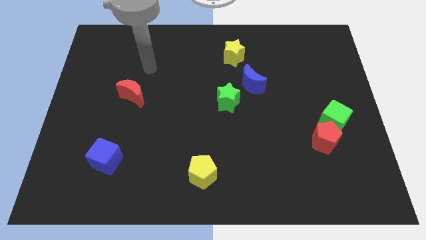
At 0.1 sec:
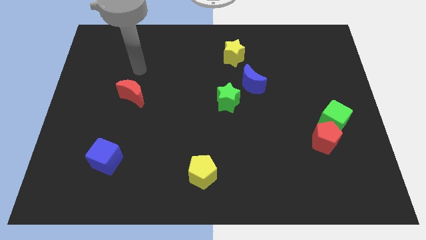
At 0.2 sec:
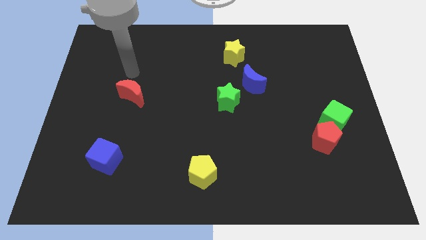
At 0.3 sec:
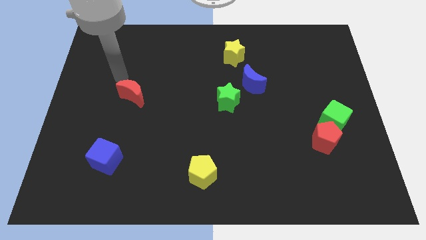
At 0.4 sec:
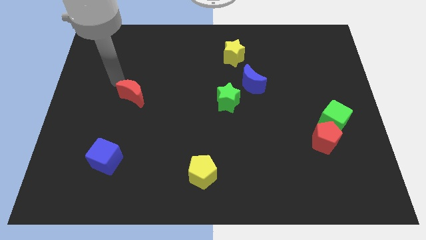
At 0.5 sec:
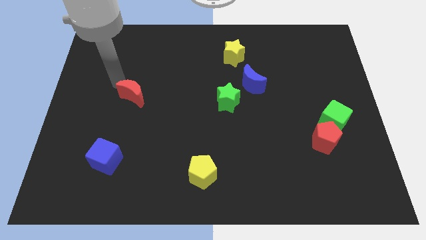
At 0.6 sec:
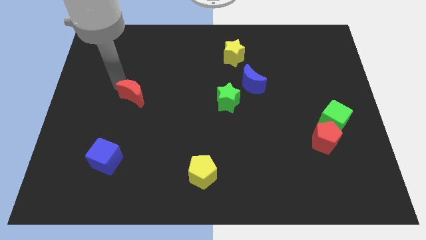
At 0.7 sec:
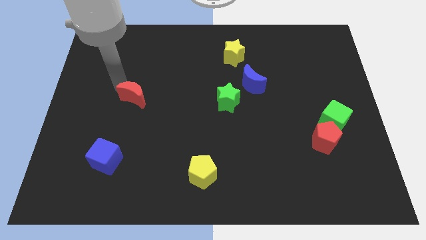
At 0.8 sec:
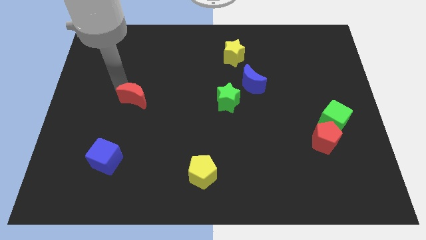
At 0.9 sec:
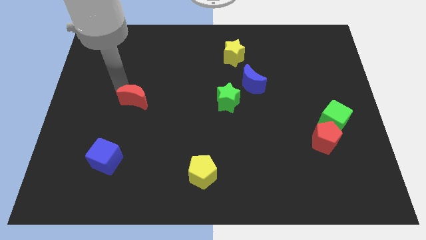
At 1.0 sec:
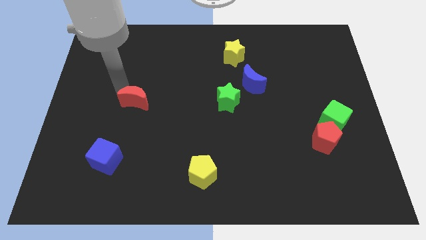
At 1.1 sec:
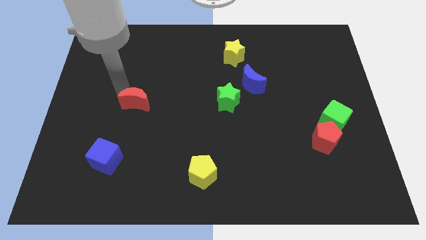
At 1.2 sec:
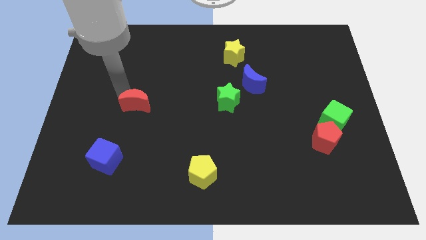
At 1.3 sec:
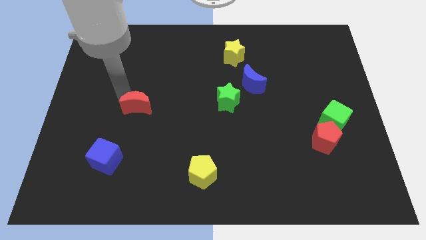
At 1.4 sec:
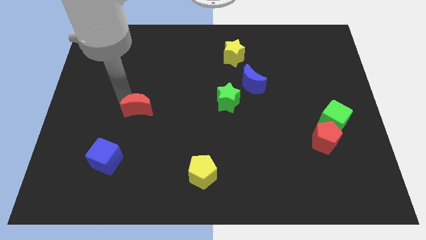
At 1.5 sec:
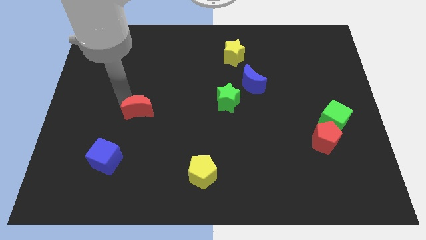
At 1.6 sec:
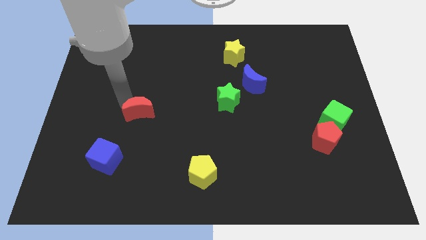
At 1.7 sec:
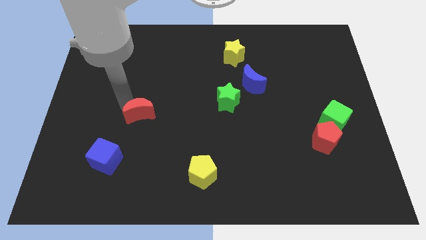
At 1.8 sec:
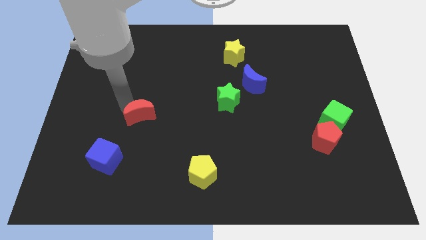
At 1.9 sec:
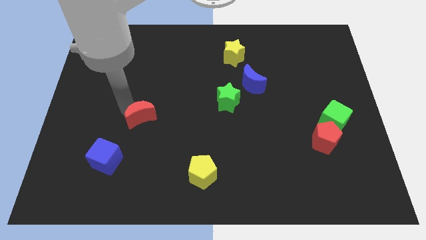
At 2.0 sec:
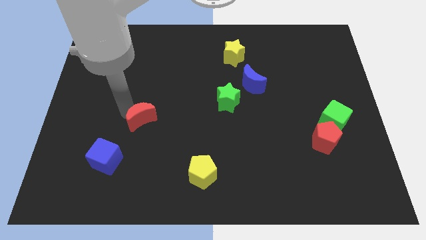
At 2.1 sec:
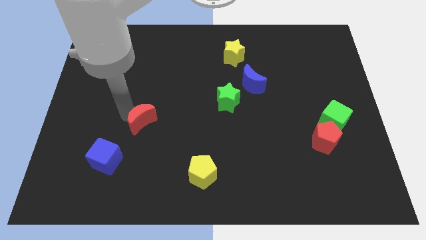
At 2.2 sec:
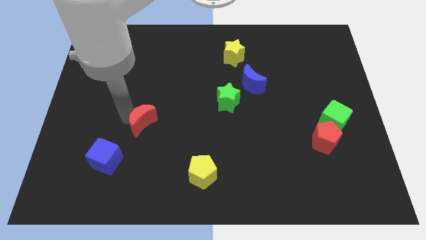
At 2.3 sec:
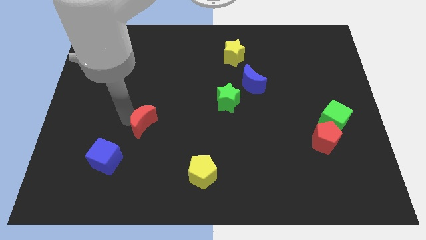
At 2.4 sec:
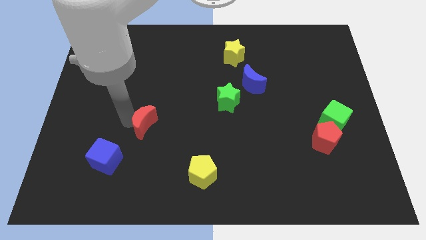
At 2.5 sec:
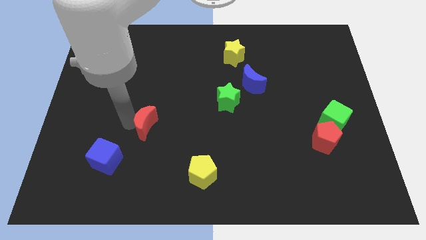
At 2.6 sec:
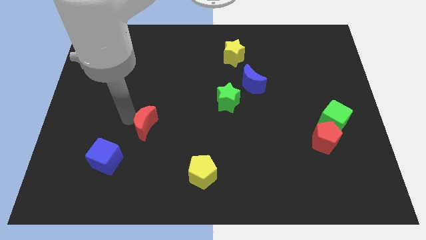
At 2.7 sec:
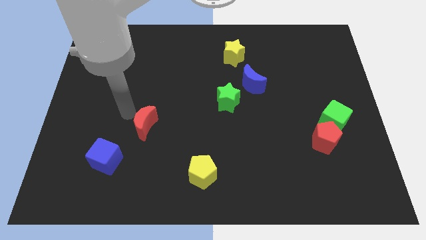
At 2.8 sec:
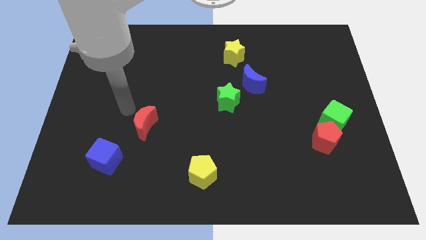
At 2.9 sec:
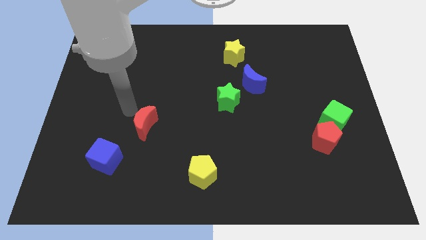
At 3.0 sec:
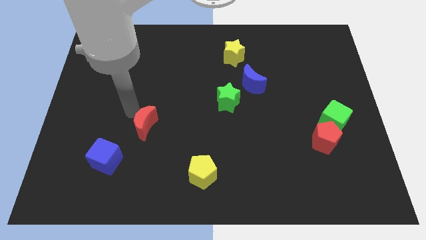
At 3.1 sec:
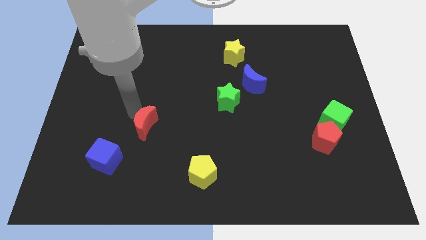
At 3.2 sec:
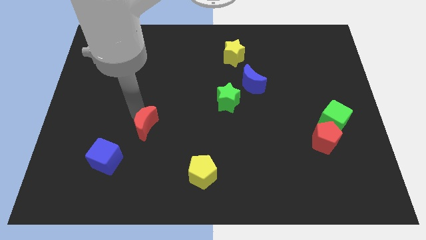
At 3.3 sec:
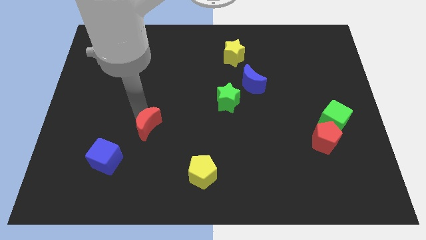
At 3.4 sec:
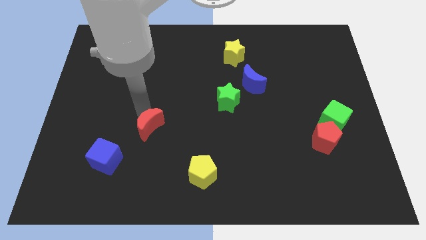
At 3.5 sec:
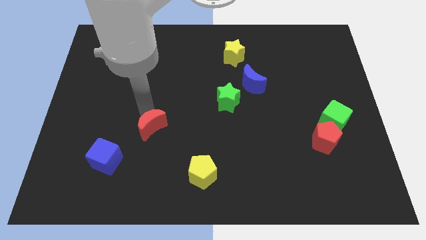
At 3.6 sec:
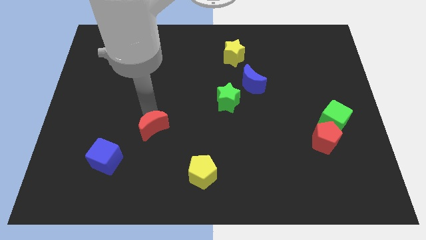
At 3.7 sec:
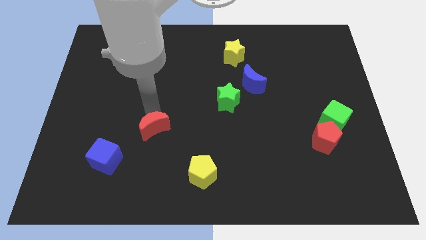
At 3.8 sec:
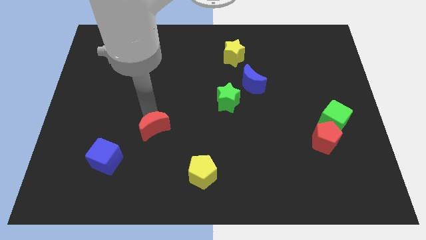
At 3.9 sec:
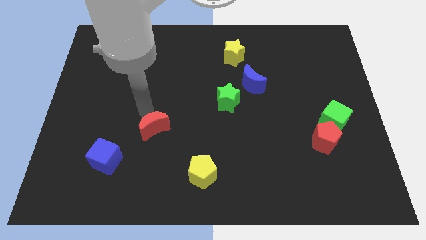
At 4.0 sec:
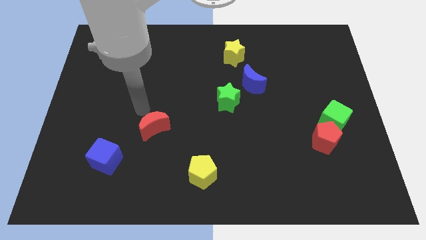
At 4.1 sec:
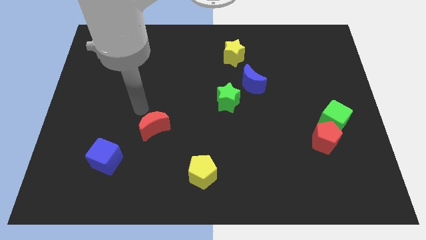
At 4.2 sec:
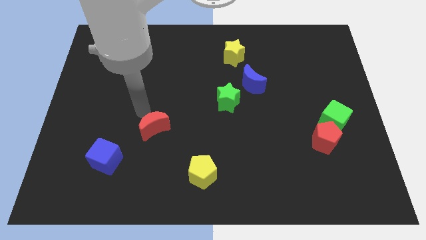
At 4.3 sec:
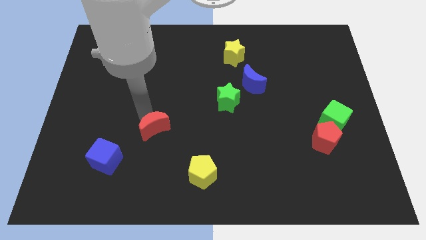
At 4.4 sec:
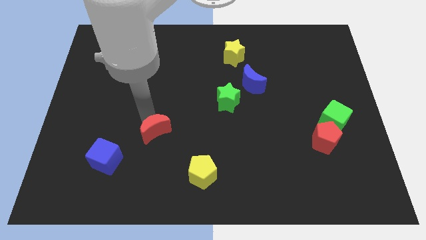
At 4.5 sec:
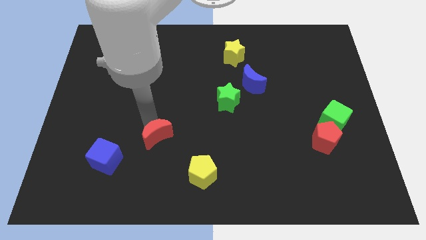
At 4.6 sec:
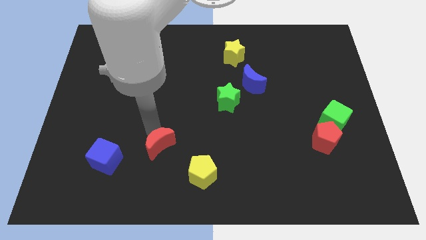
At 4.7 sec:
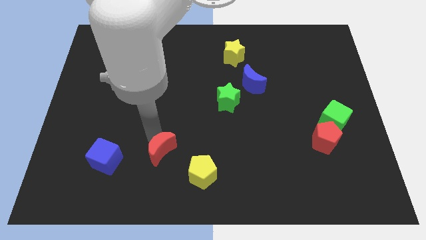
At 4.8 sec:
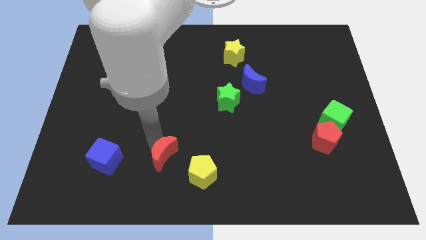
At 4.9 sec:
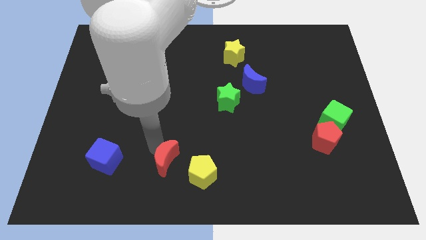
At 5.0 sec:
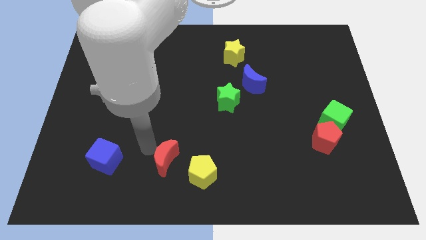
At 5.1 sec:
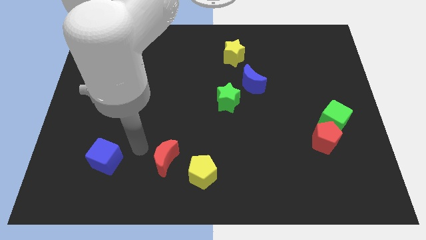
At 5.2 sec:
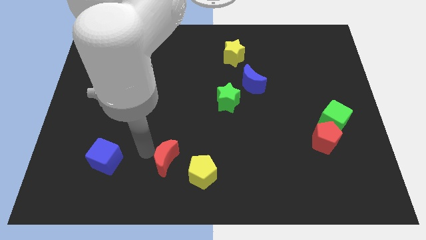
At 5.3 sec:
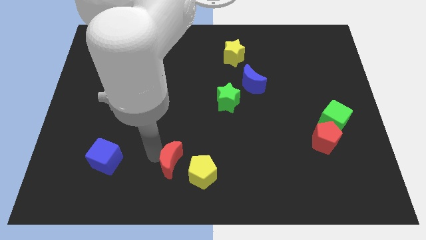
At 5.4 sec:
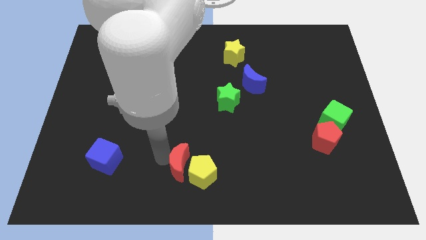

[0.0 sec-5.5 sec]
put the red moon to the yellow pentagon

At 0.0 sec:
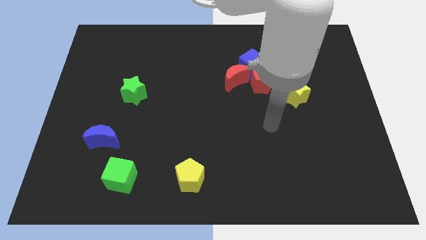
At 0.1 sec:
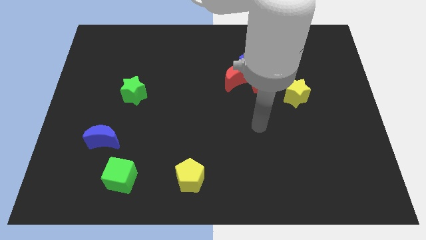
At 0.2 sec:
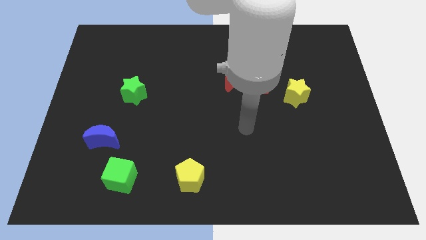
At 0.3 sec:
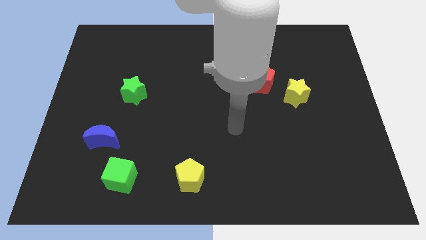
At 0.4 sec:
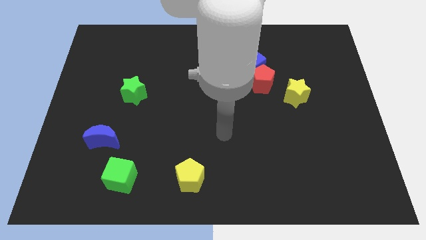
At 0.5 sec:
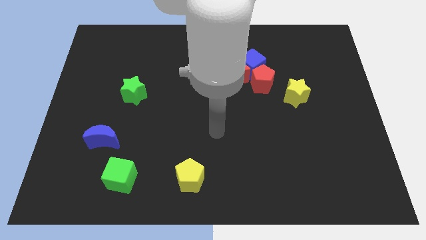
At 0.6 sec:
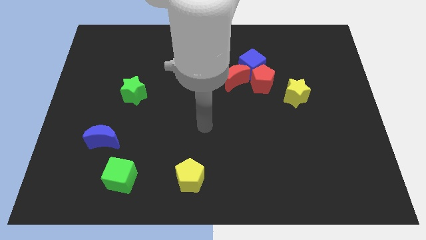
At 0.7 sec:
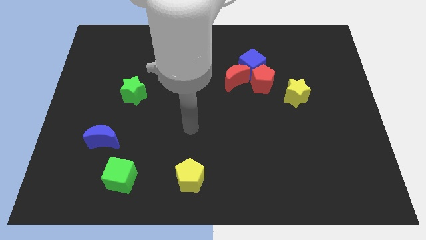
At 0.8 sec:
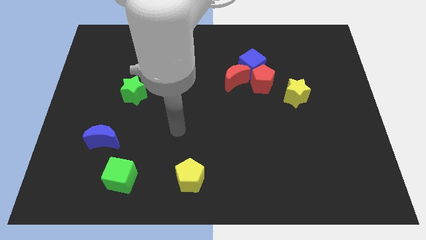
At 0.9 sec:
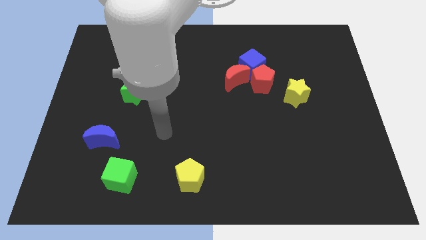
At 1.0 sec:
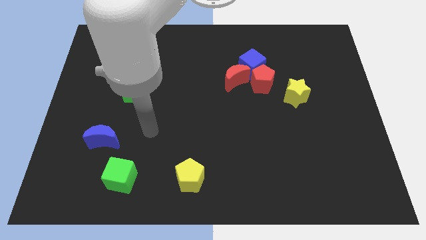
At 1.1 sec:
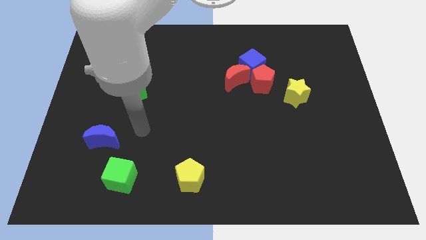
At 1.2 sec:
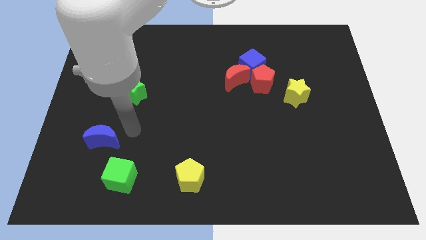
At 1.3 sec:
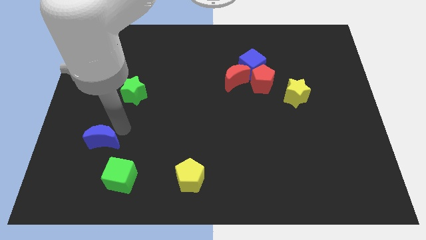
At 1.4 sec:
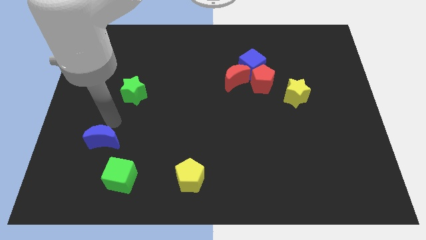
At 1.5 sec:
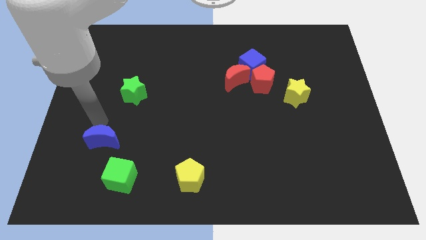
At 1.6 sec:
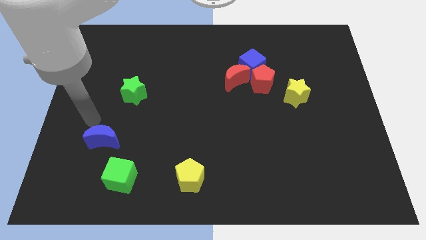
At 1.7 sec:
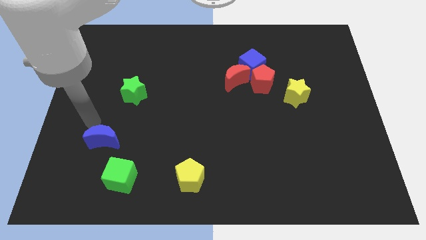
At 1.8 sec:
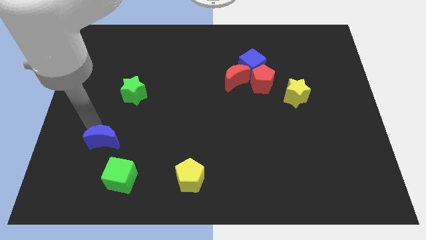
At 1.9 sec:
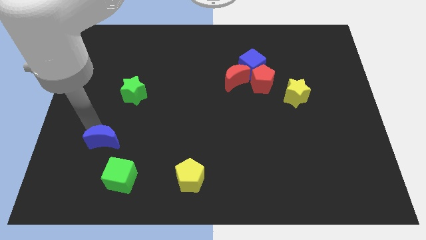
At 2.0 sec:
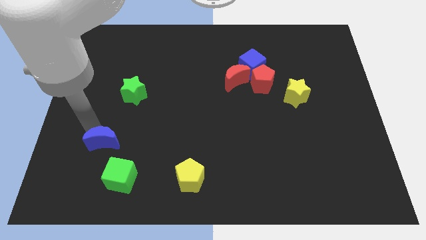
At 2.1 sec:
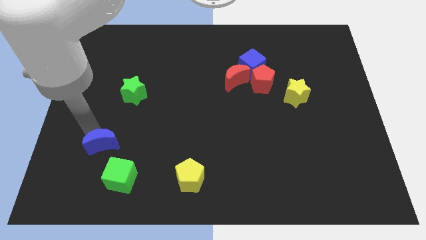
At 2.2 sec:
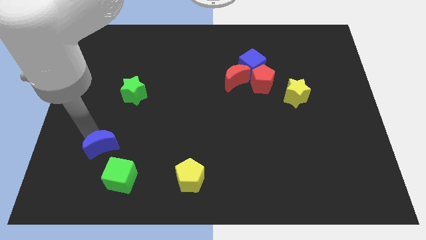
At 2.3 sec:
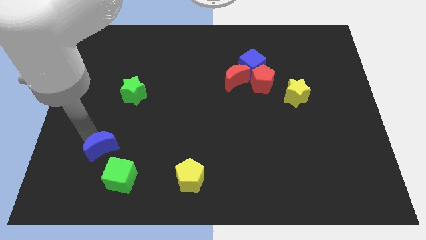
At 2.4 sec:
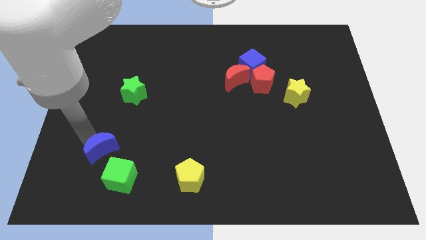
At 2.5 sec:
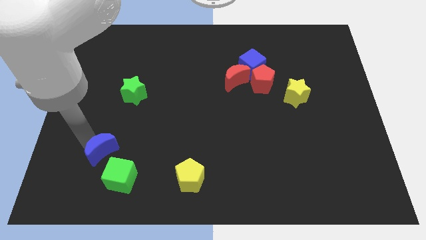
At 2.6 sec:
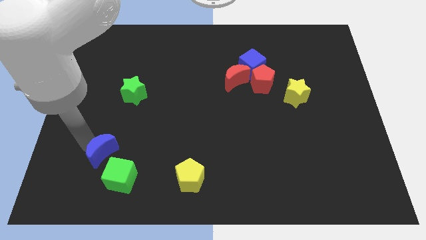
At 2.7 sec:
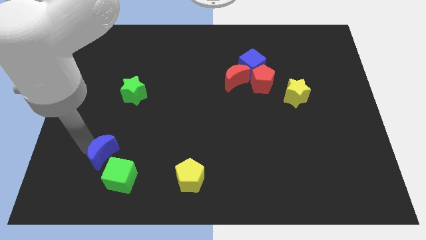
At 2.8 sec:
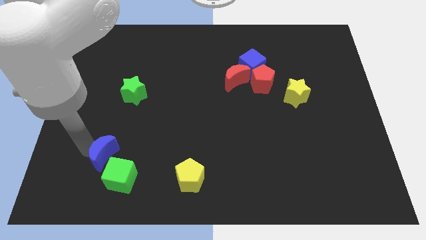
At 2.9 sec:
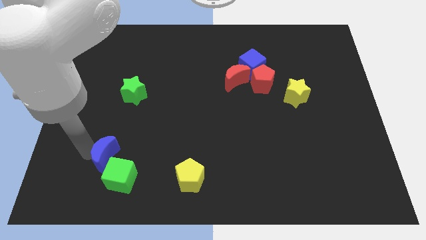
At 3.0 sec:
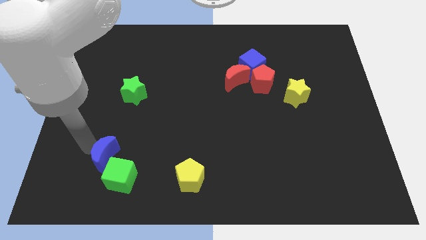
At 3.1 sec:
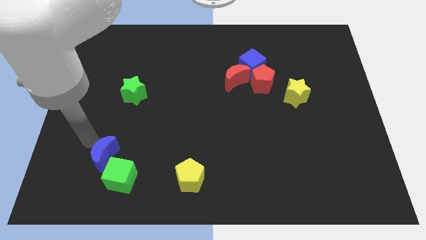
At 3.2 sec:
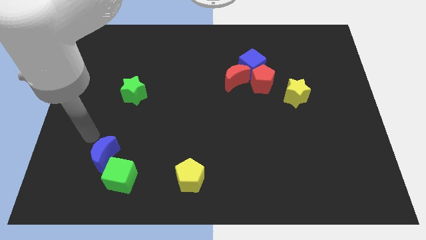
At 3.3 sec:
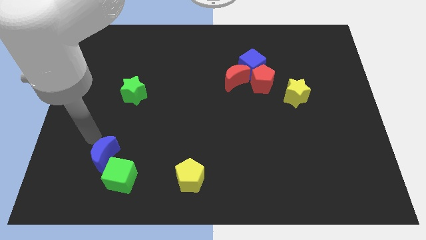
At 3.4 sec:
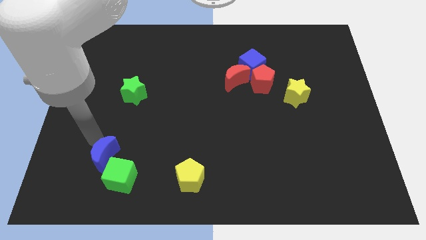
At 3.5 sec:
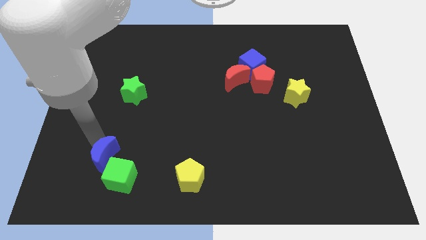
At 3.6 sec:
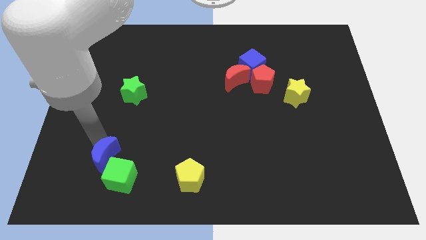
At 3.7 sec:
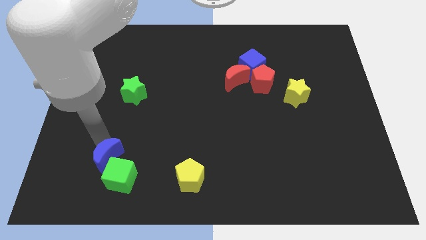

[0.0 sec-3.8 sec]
slide the blue moon towards the green cube
